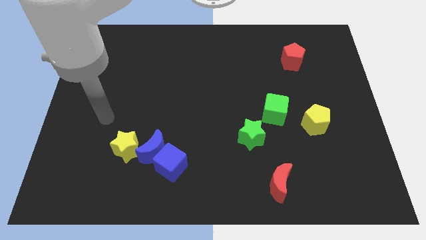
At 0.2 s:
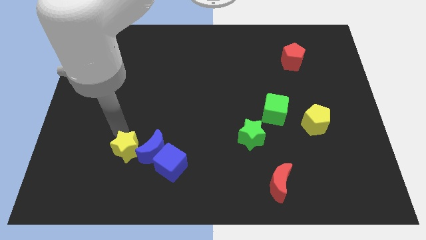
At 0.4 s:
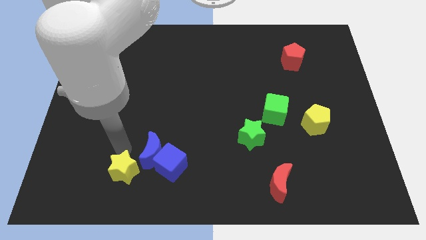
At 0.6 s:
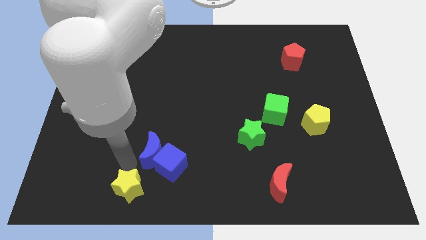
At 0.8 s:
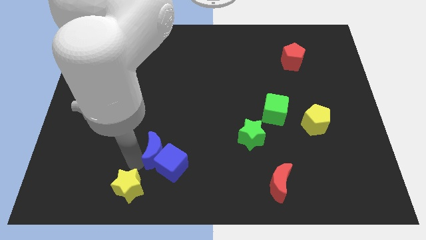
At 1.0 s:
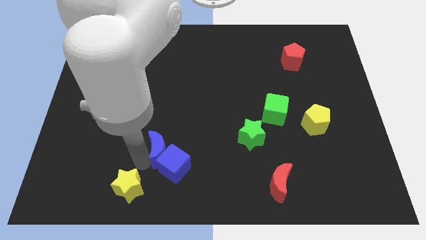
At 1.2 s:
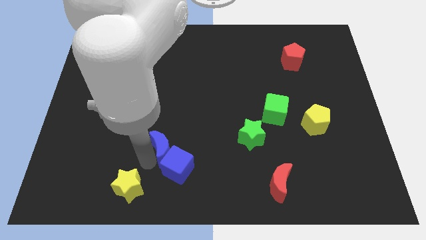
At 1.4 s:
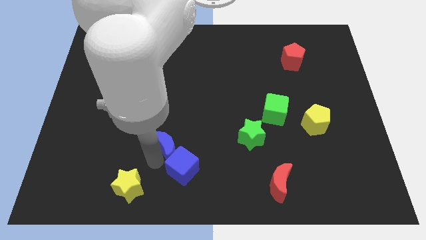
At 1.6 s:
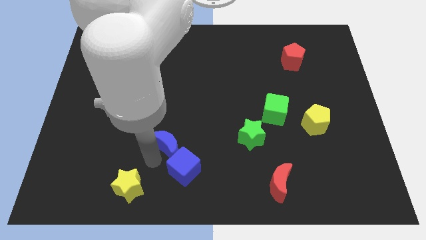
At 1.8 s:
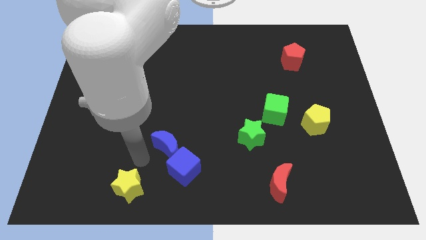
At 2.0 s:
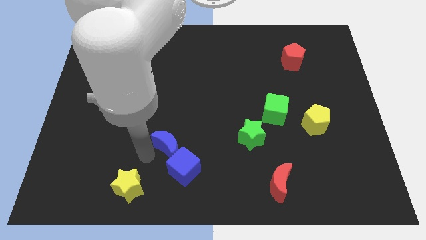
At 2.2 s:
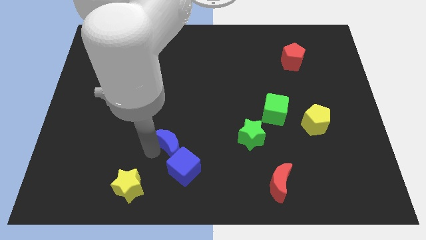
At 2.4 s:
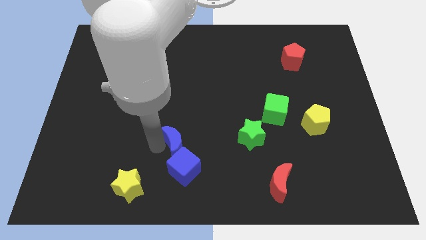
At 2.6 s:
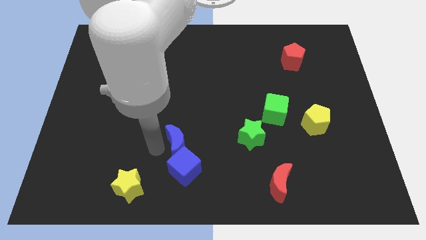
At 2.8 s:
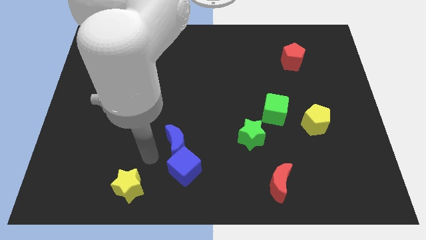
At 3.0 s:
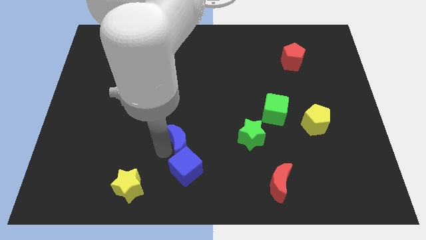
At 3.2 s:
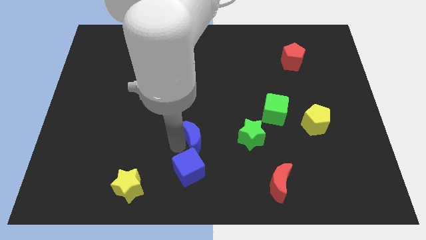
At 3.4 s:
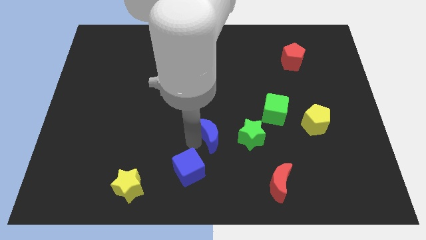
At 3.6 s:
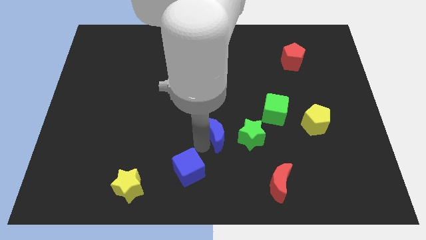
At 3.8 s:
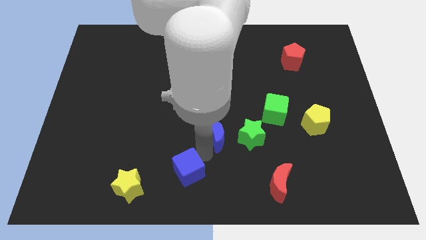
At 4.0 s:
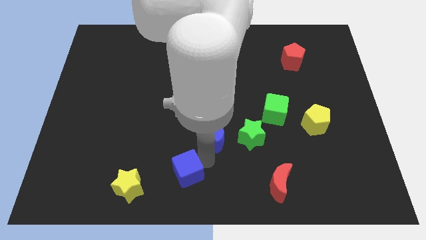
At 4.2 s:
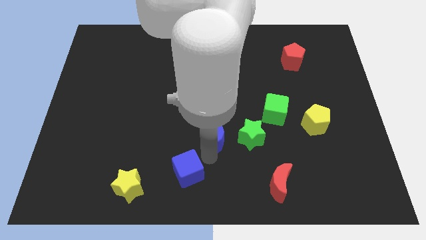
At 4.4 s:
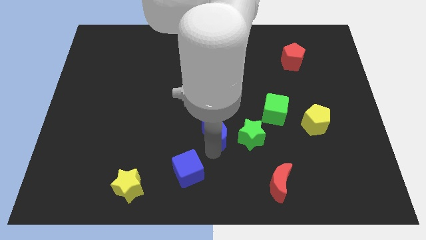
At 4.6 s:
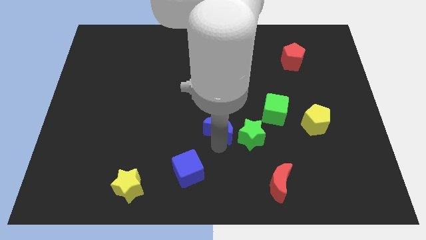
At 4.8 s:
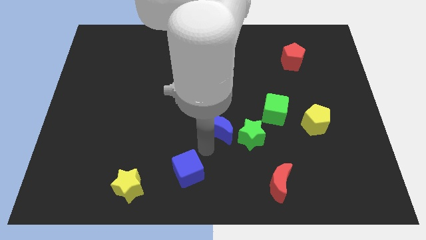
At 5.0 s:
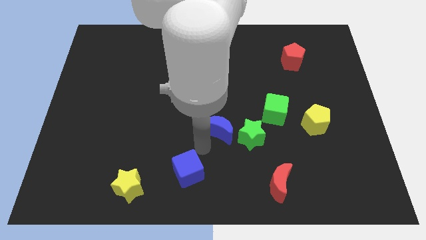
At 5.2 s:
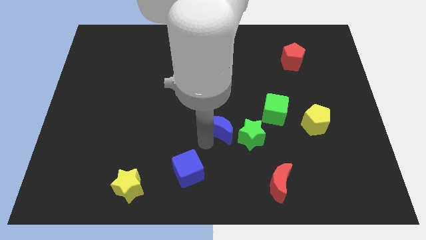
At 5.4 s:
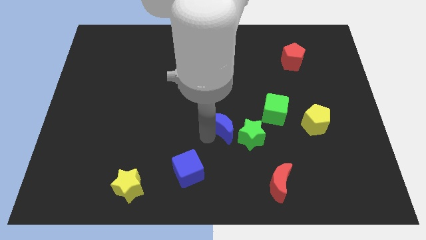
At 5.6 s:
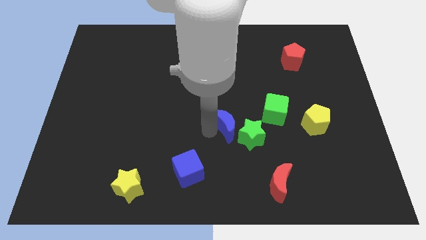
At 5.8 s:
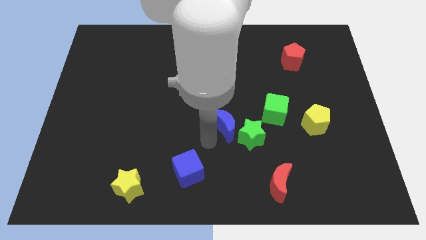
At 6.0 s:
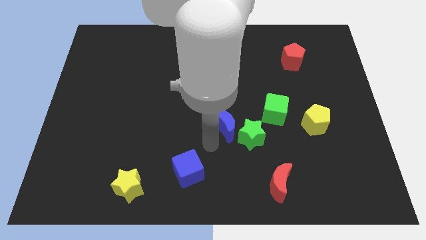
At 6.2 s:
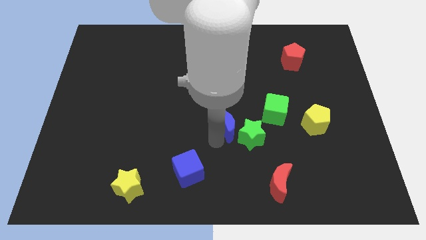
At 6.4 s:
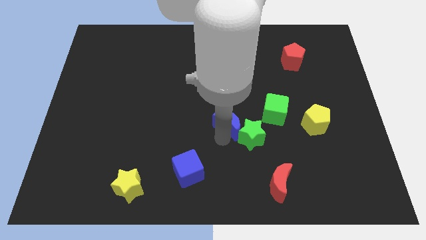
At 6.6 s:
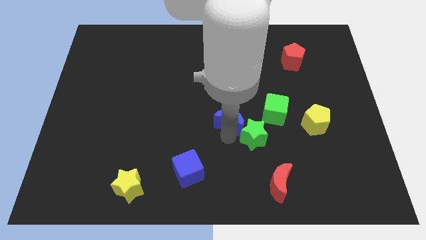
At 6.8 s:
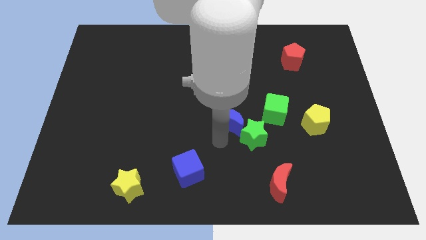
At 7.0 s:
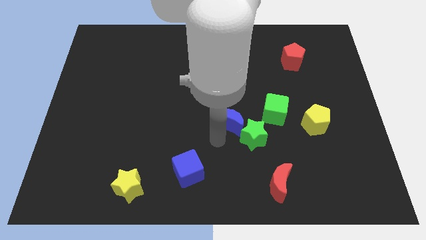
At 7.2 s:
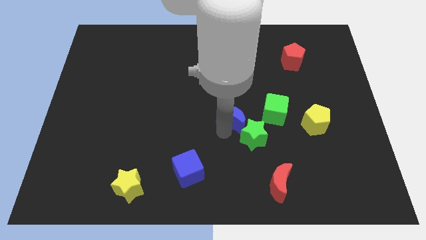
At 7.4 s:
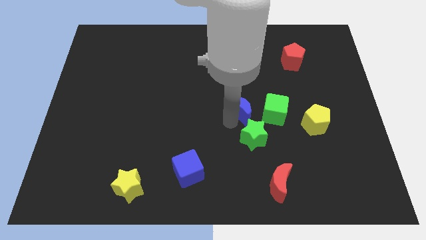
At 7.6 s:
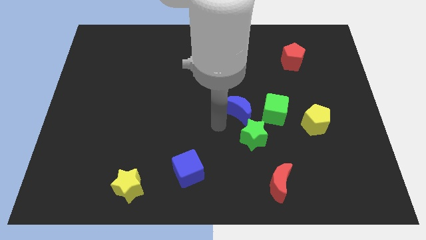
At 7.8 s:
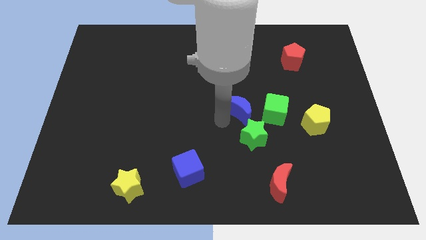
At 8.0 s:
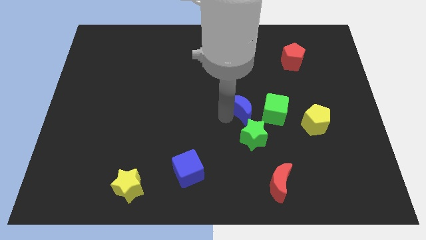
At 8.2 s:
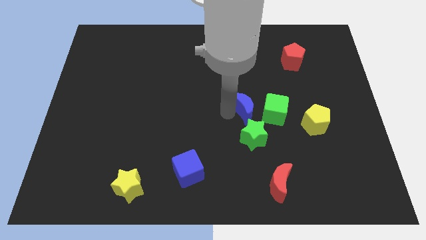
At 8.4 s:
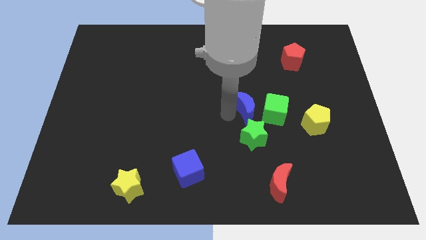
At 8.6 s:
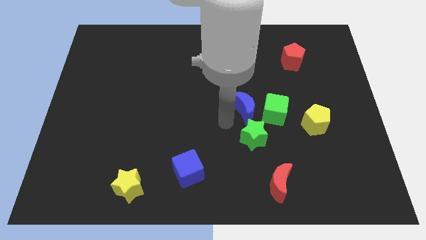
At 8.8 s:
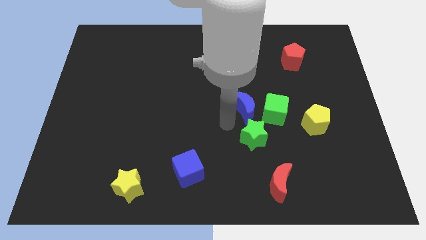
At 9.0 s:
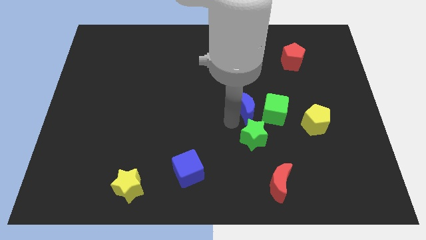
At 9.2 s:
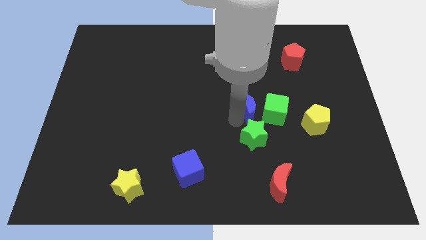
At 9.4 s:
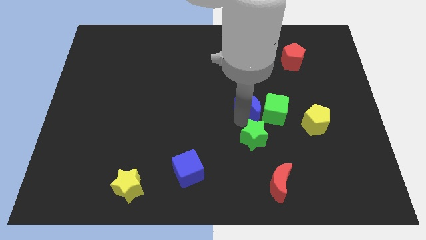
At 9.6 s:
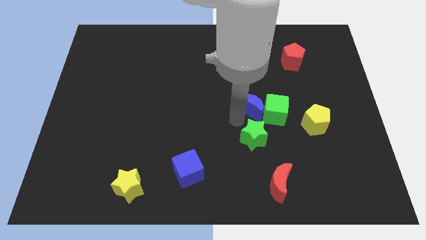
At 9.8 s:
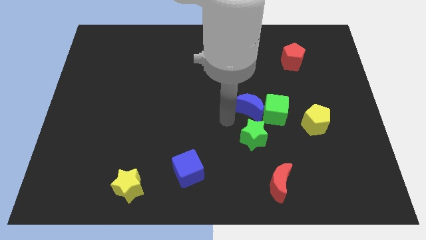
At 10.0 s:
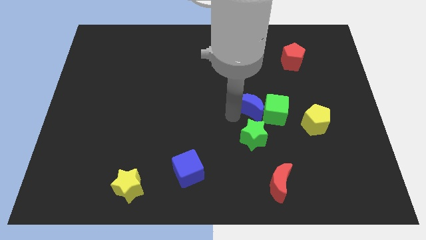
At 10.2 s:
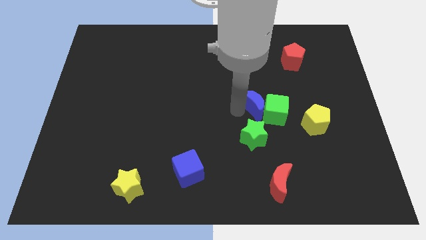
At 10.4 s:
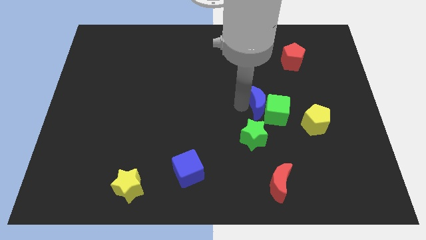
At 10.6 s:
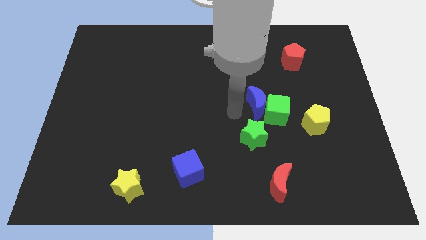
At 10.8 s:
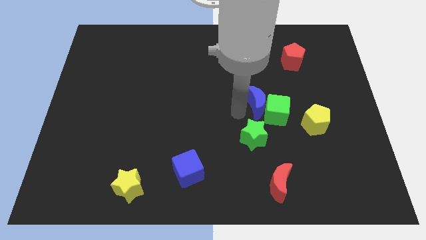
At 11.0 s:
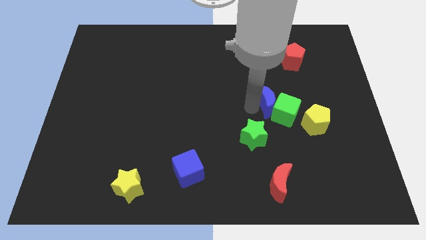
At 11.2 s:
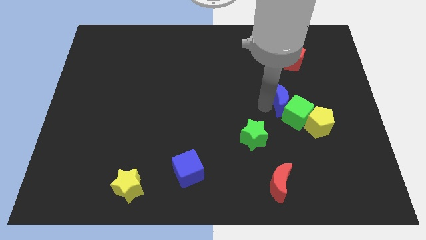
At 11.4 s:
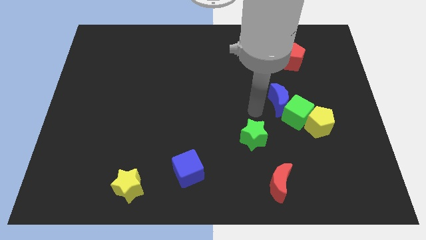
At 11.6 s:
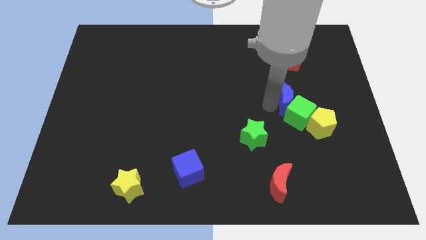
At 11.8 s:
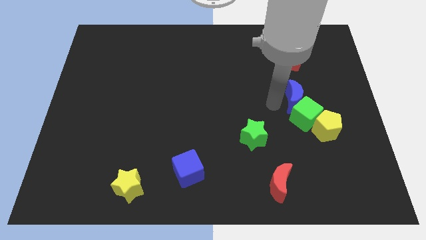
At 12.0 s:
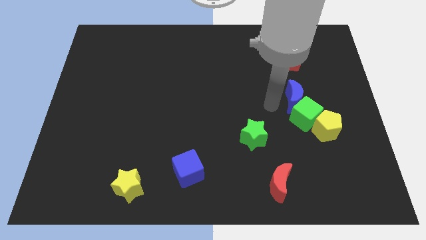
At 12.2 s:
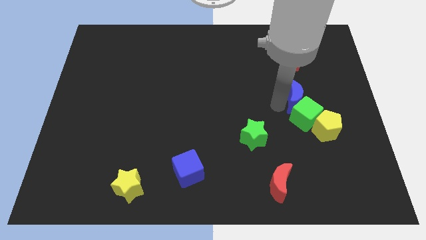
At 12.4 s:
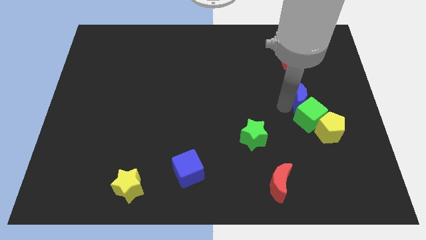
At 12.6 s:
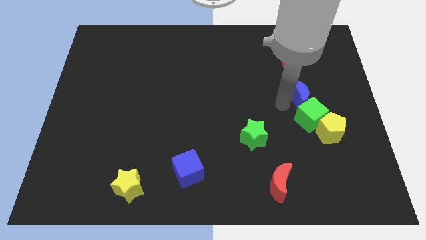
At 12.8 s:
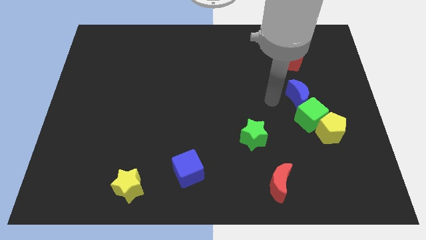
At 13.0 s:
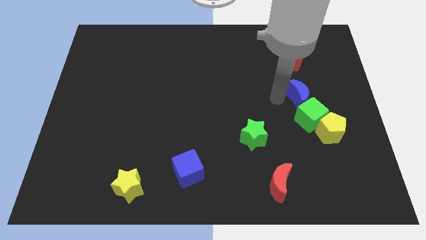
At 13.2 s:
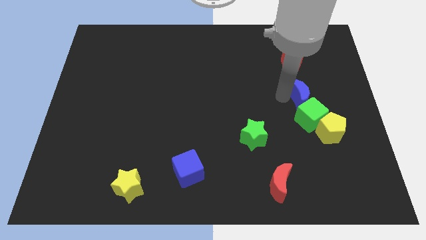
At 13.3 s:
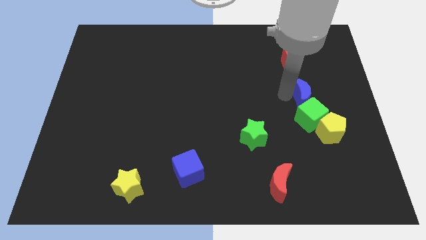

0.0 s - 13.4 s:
move the blue moon to the top of the yellow pentagon
